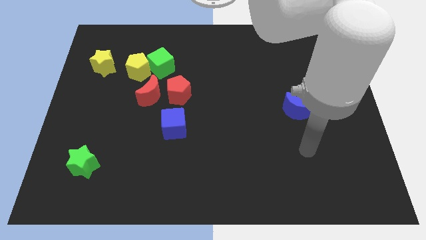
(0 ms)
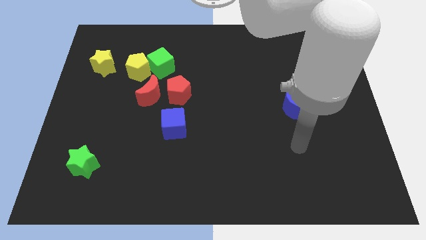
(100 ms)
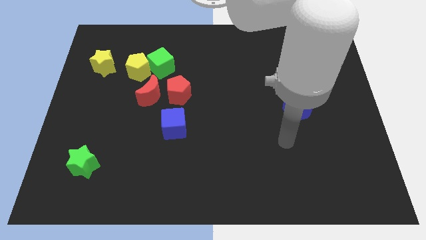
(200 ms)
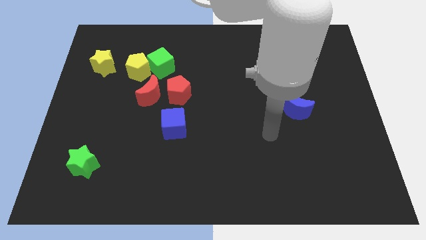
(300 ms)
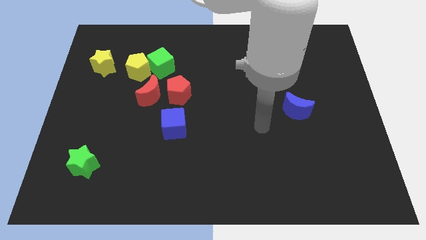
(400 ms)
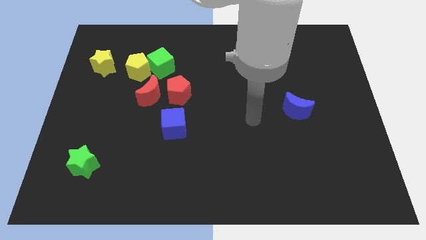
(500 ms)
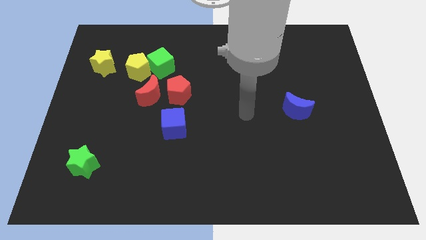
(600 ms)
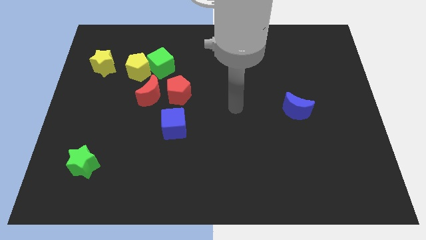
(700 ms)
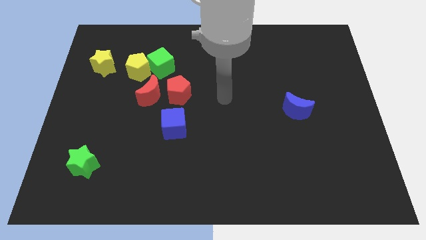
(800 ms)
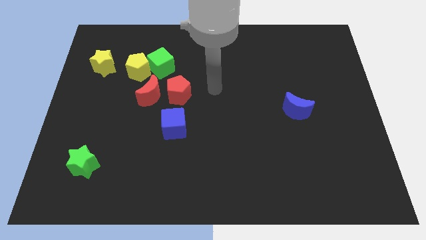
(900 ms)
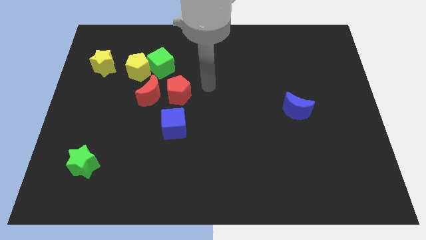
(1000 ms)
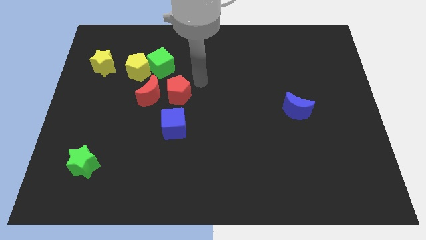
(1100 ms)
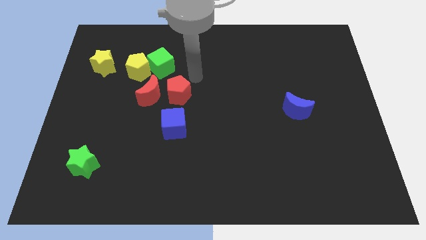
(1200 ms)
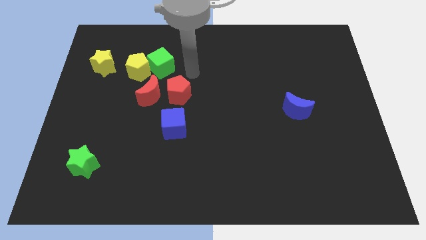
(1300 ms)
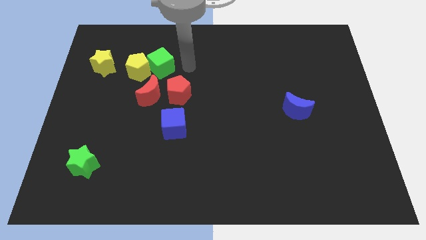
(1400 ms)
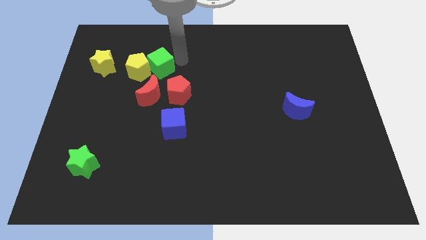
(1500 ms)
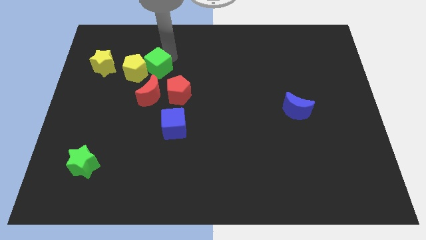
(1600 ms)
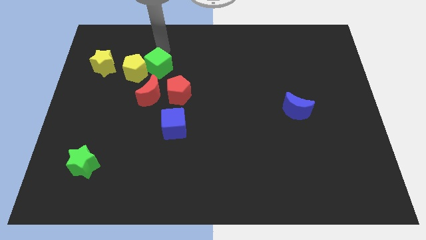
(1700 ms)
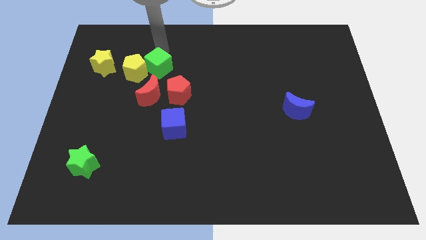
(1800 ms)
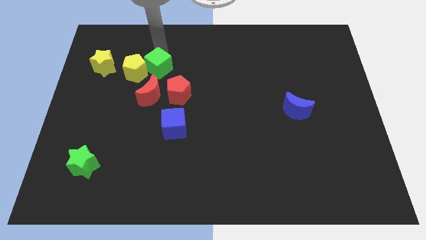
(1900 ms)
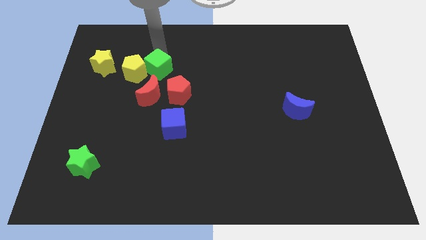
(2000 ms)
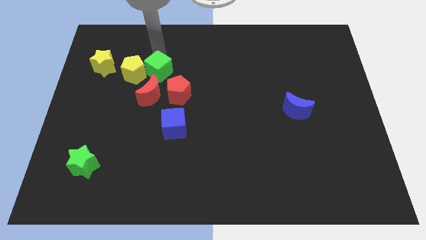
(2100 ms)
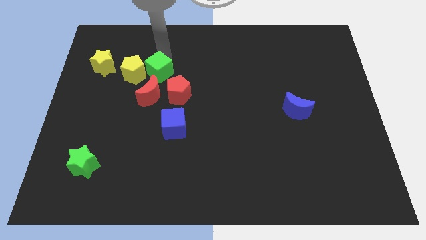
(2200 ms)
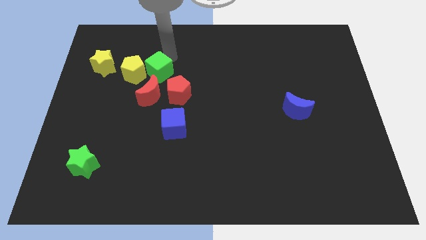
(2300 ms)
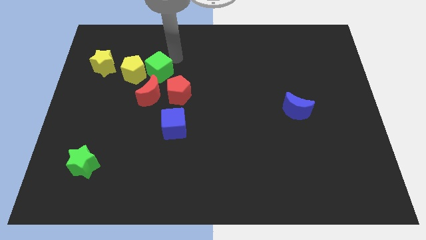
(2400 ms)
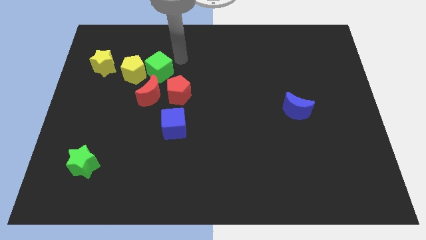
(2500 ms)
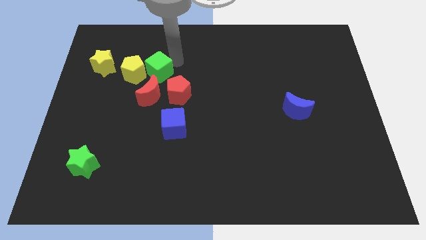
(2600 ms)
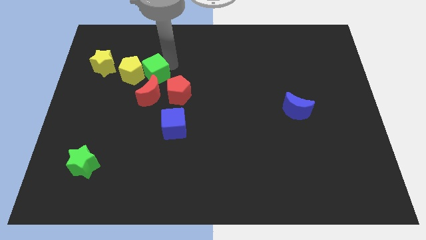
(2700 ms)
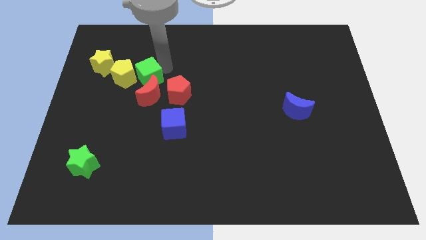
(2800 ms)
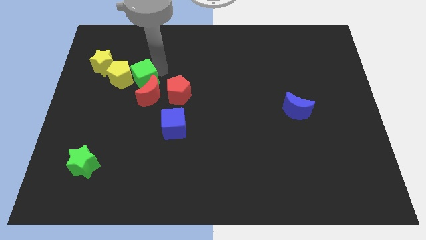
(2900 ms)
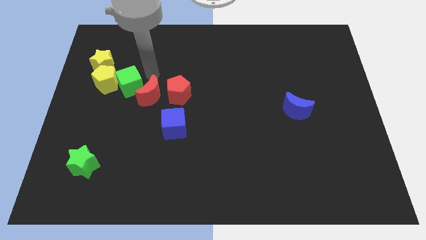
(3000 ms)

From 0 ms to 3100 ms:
push the green cube down and left diagonally slightly

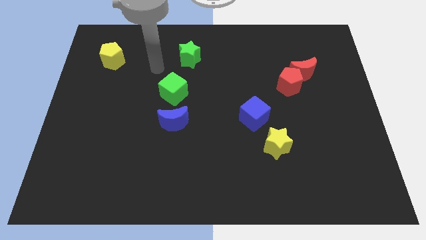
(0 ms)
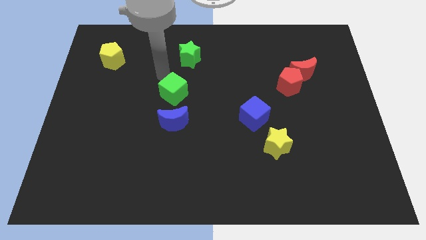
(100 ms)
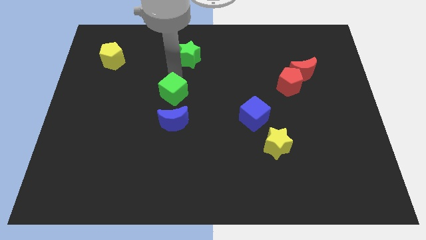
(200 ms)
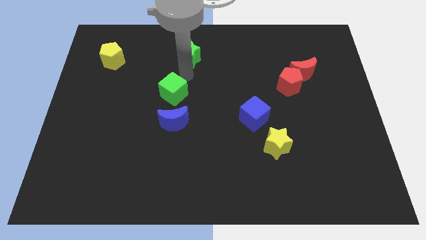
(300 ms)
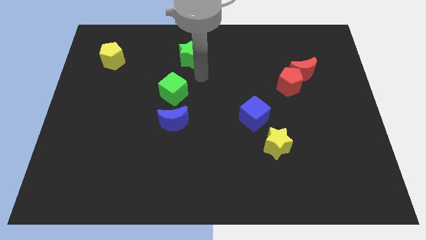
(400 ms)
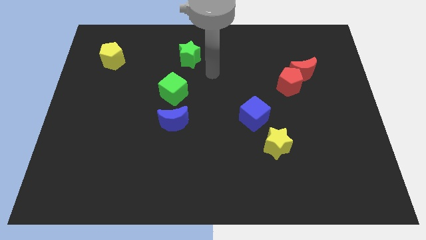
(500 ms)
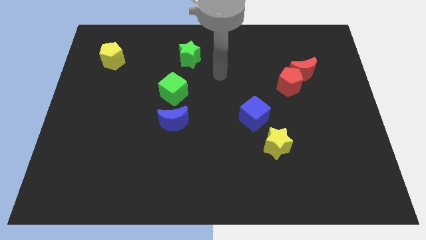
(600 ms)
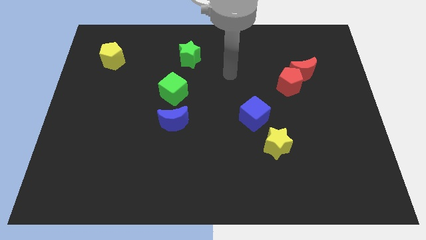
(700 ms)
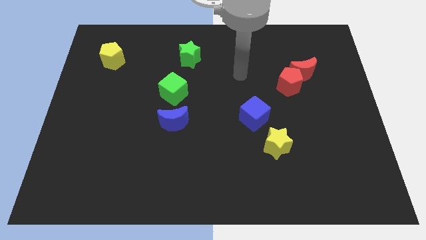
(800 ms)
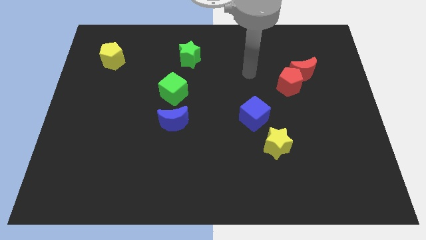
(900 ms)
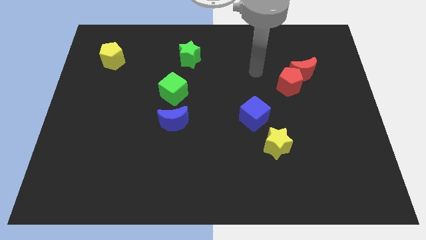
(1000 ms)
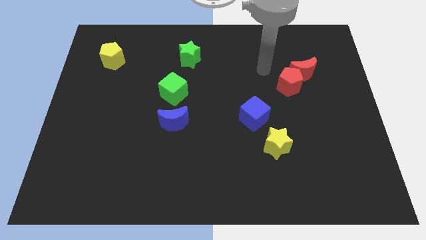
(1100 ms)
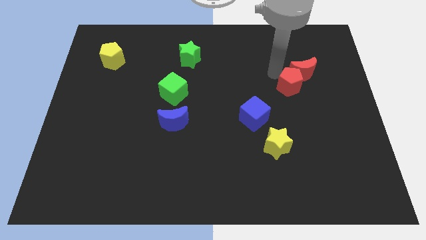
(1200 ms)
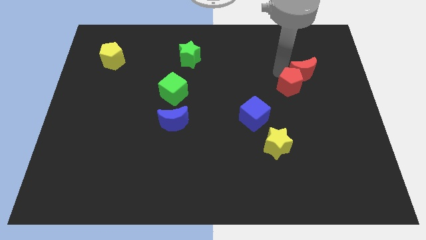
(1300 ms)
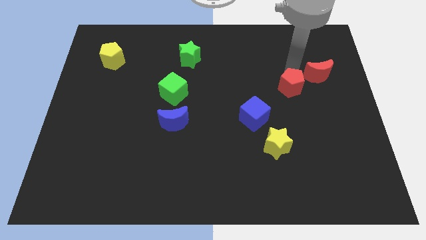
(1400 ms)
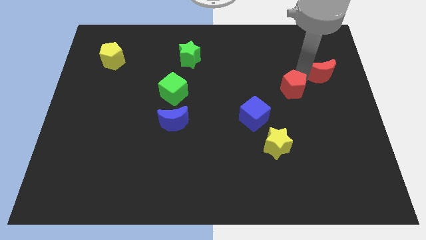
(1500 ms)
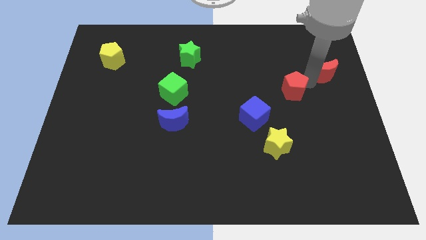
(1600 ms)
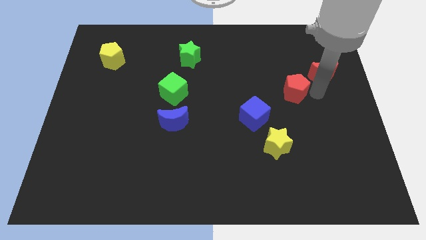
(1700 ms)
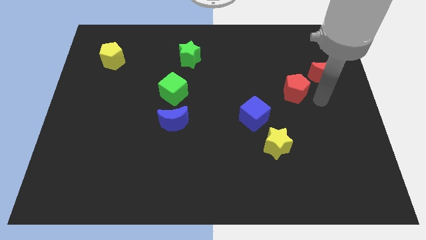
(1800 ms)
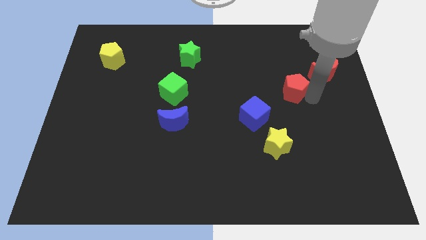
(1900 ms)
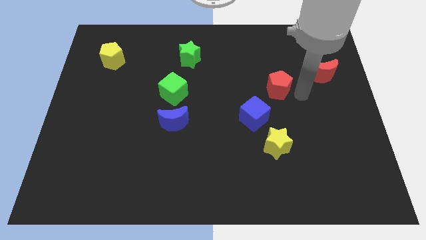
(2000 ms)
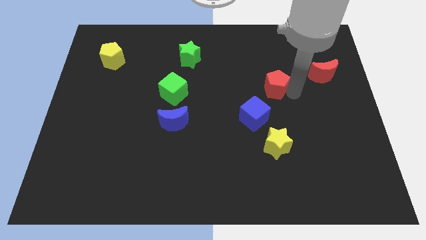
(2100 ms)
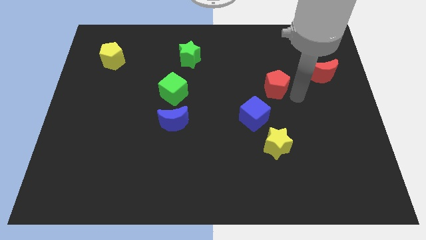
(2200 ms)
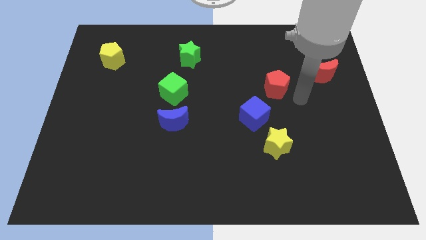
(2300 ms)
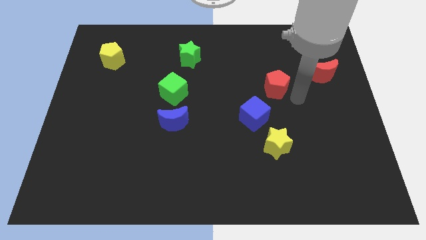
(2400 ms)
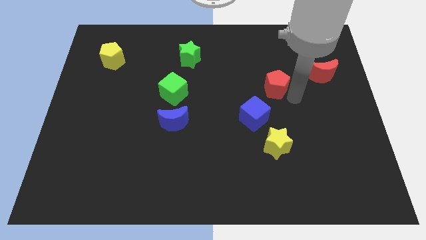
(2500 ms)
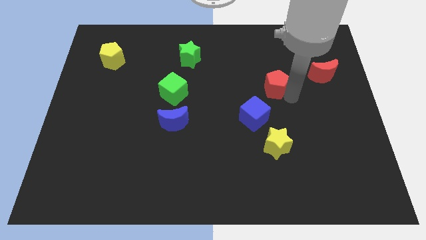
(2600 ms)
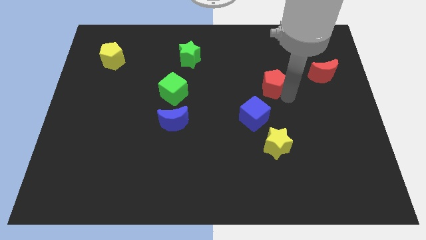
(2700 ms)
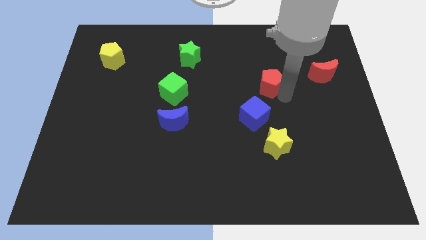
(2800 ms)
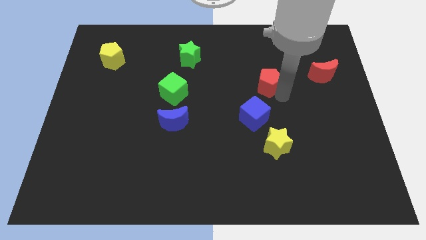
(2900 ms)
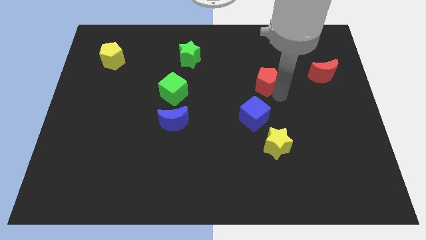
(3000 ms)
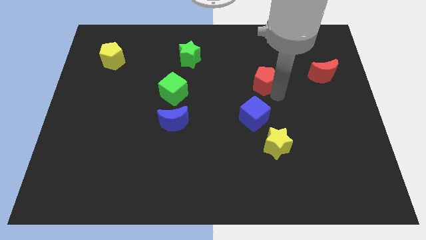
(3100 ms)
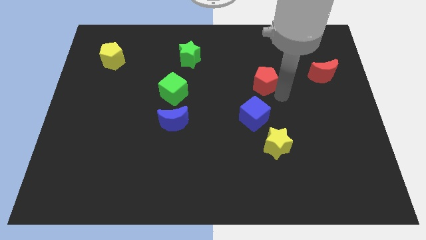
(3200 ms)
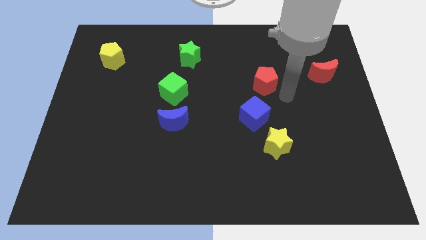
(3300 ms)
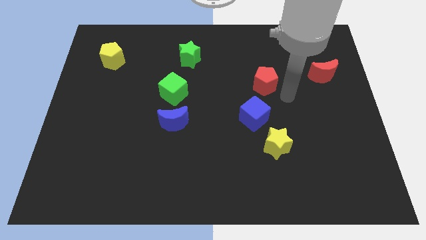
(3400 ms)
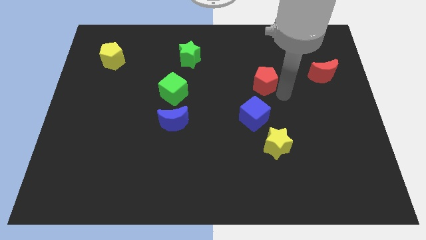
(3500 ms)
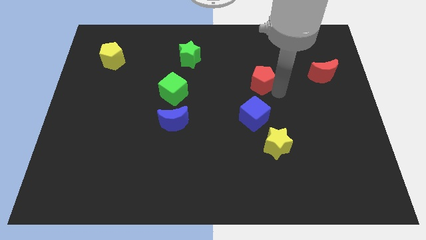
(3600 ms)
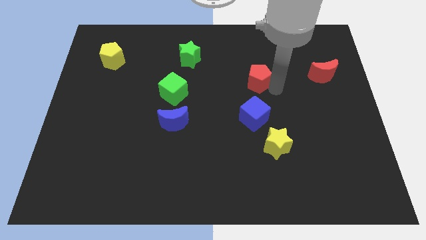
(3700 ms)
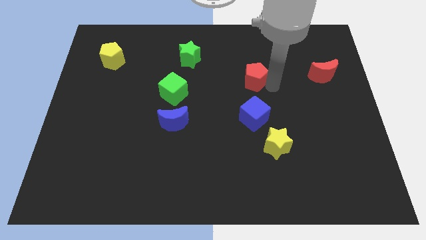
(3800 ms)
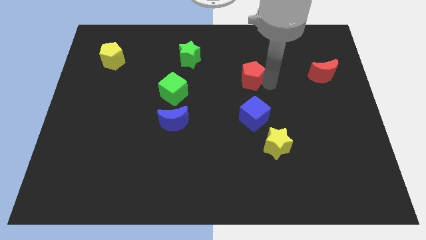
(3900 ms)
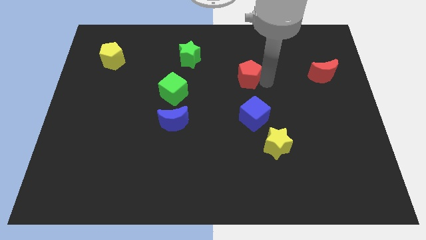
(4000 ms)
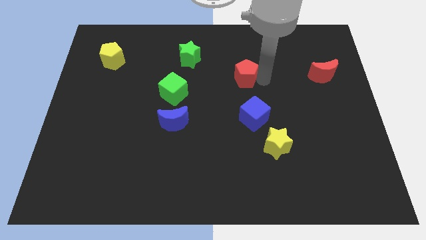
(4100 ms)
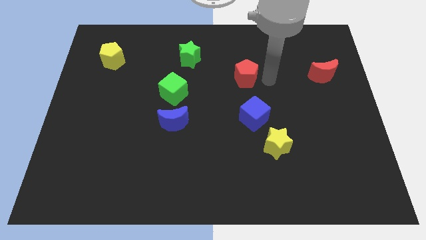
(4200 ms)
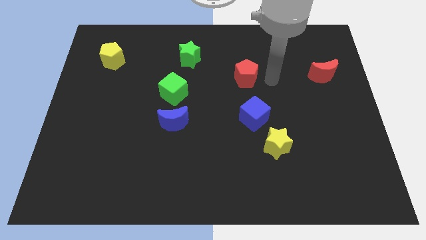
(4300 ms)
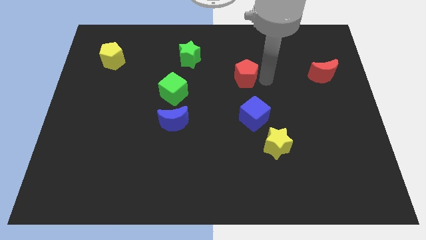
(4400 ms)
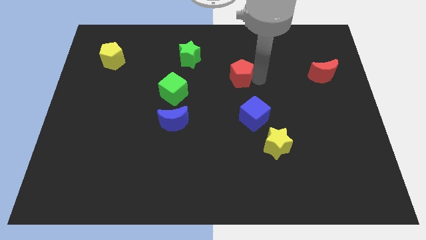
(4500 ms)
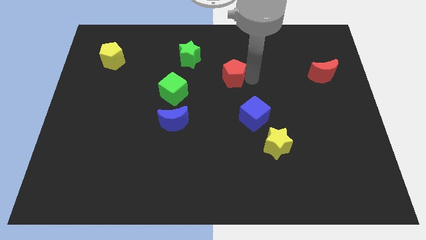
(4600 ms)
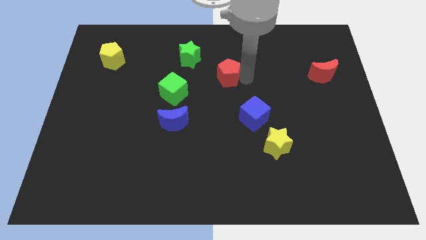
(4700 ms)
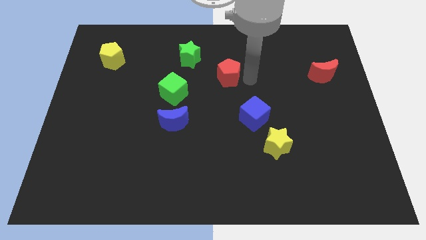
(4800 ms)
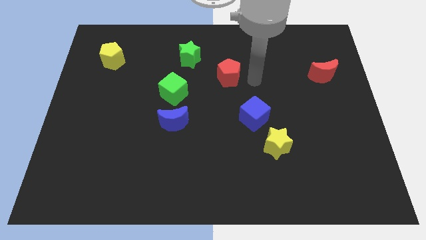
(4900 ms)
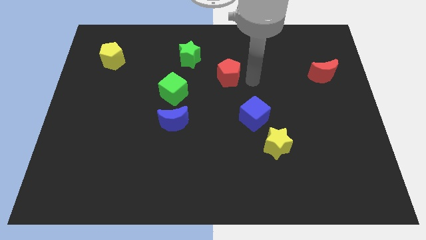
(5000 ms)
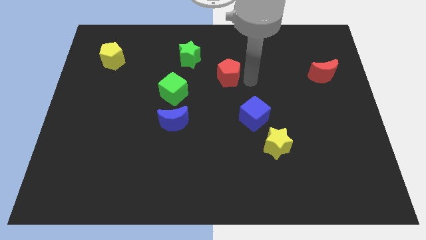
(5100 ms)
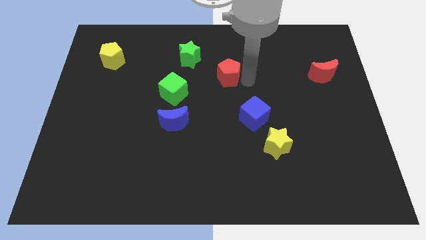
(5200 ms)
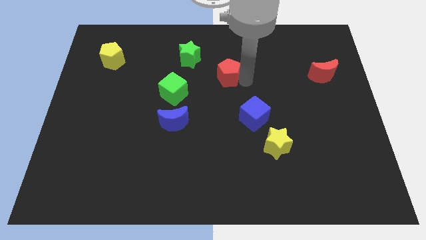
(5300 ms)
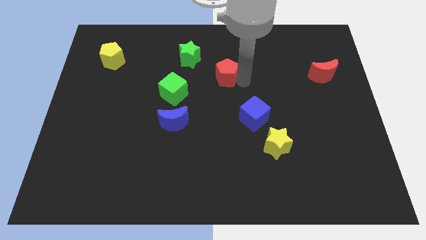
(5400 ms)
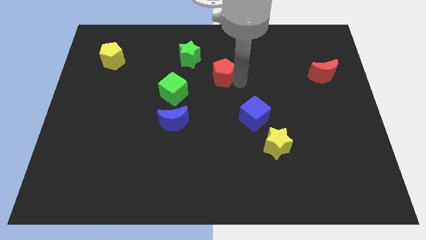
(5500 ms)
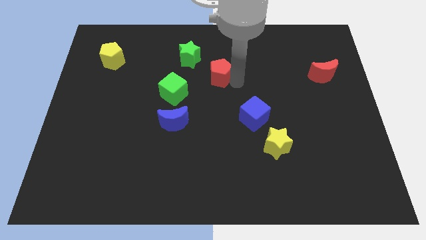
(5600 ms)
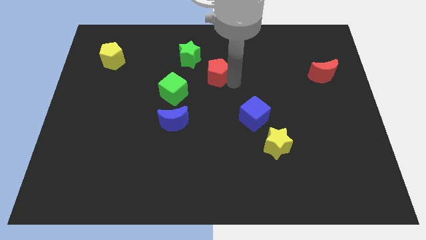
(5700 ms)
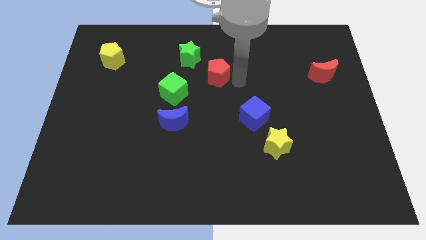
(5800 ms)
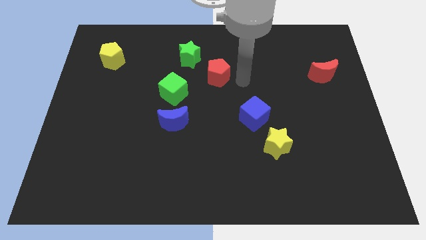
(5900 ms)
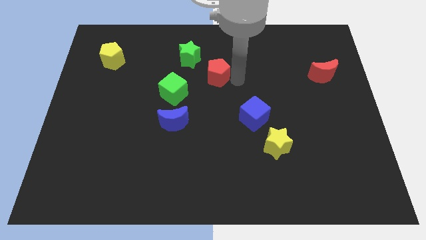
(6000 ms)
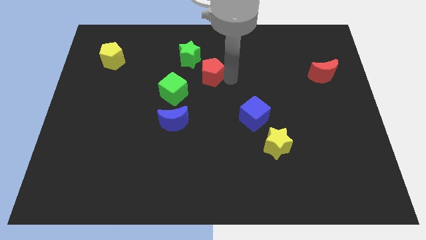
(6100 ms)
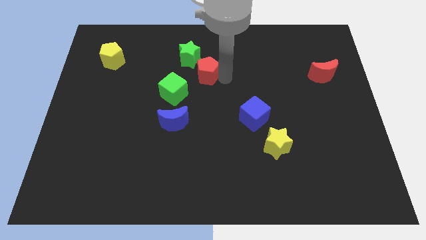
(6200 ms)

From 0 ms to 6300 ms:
move the red pentagon to the left
